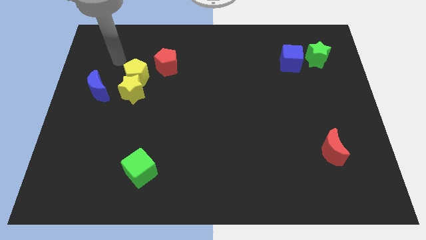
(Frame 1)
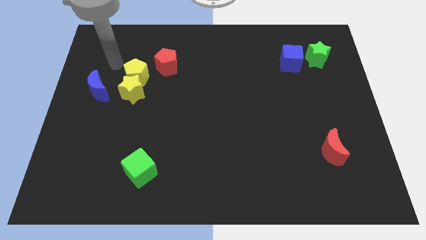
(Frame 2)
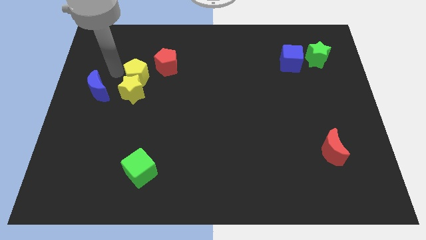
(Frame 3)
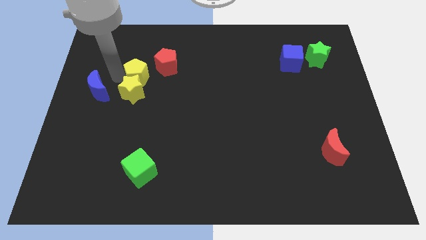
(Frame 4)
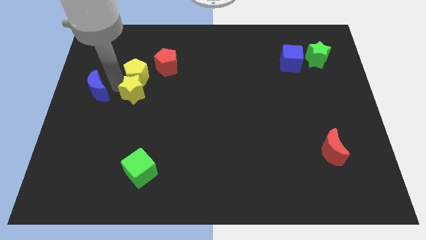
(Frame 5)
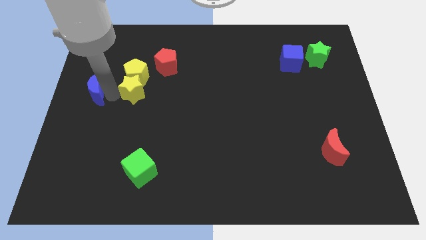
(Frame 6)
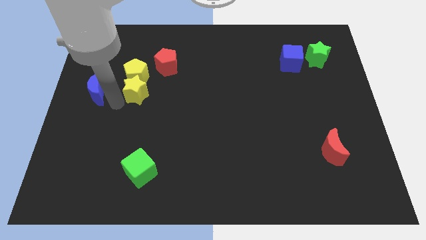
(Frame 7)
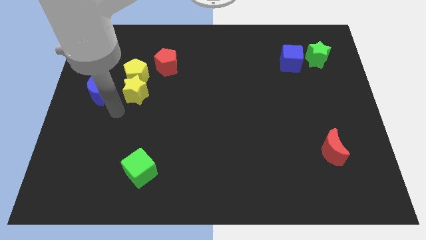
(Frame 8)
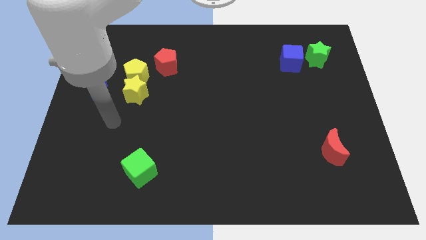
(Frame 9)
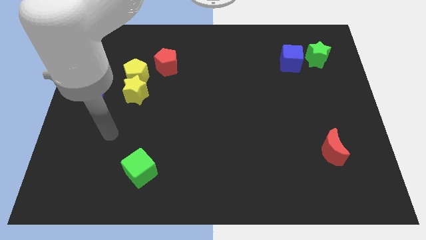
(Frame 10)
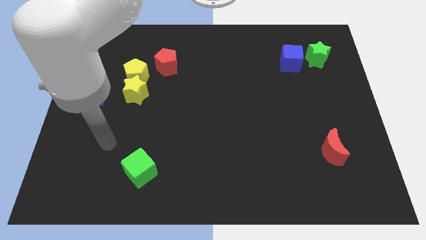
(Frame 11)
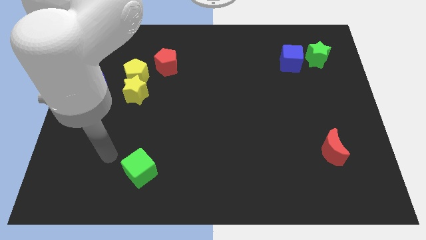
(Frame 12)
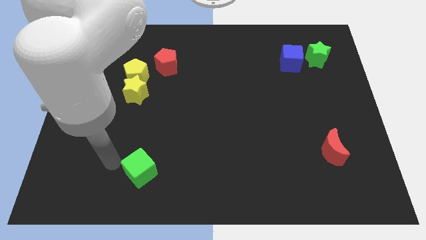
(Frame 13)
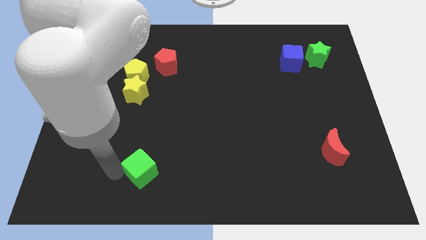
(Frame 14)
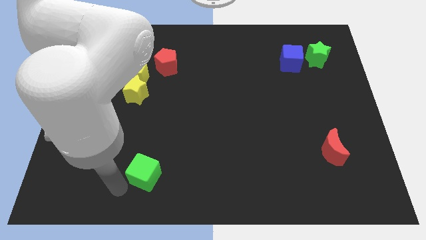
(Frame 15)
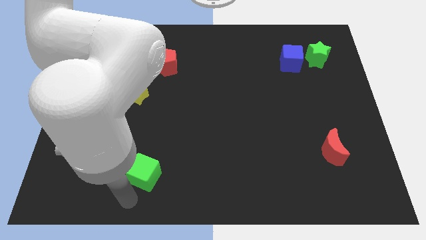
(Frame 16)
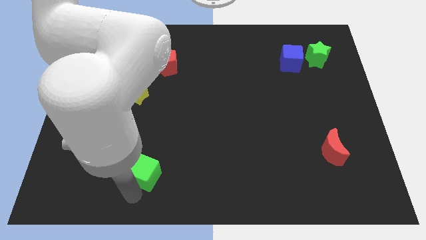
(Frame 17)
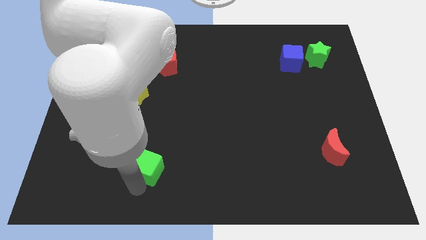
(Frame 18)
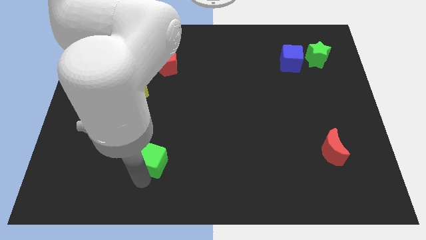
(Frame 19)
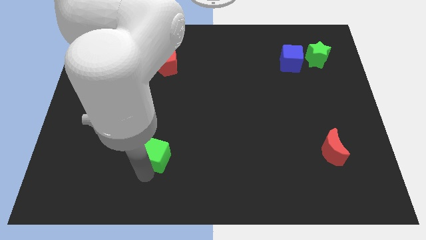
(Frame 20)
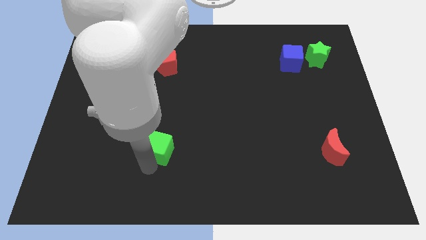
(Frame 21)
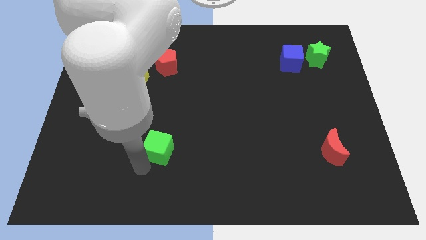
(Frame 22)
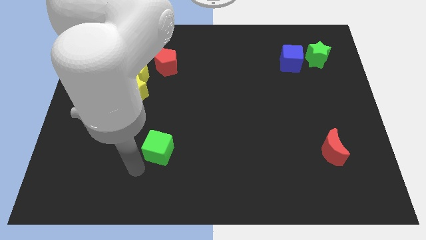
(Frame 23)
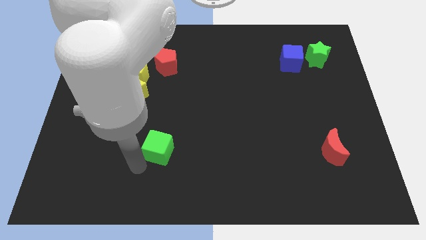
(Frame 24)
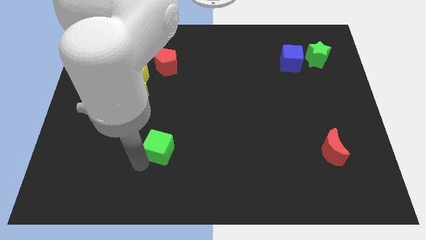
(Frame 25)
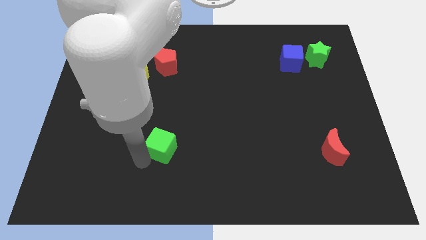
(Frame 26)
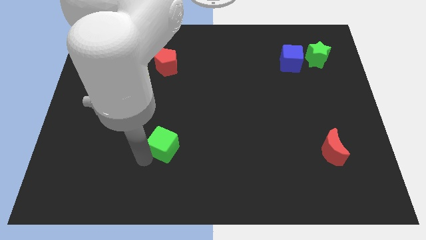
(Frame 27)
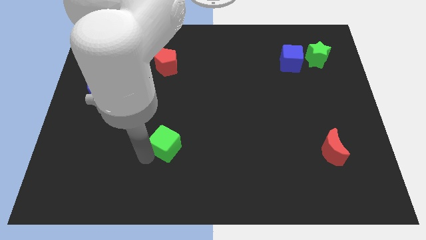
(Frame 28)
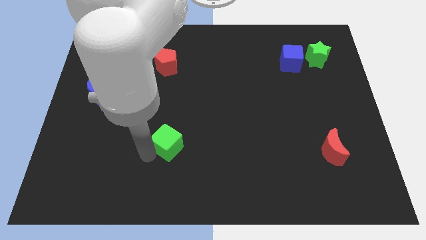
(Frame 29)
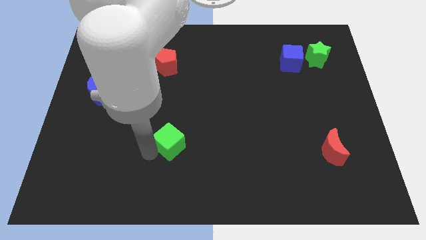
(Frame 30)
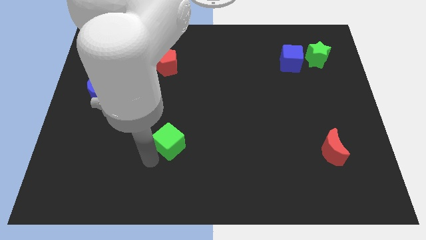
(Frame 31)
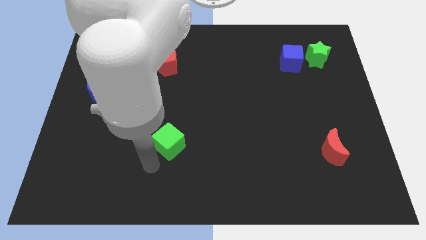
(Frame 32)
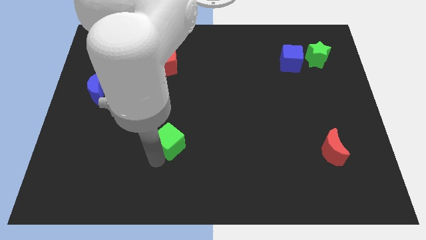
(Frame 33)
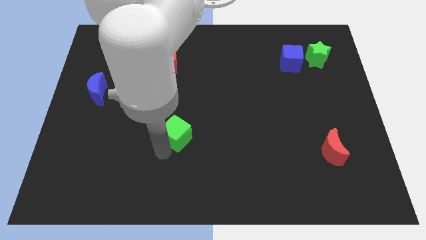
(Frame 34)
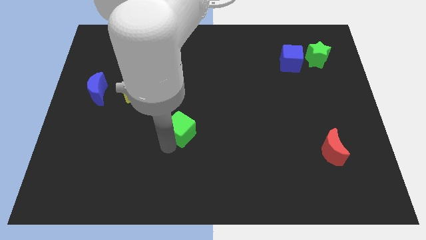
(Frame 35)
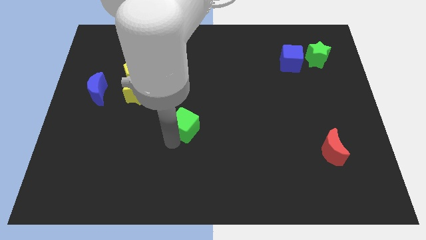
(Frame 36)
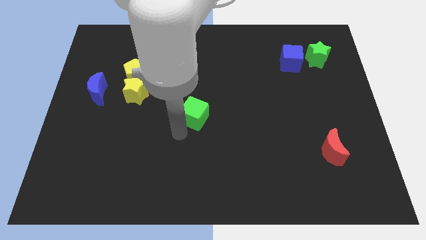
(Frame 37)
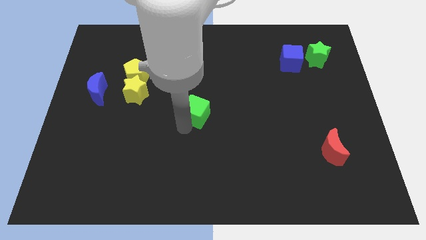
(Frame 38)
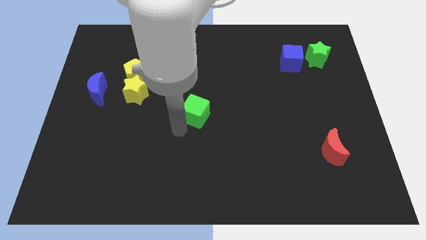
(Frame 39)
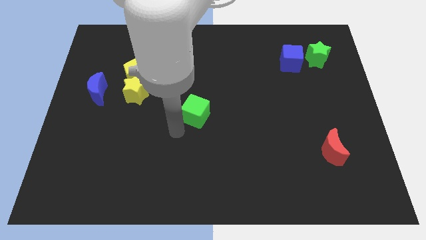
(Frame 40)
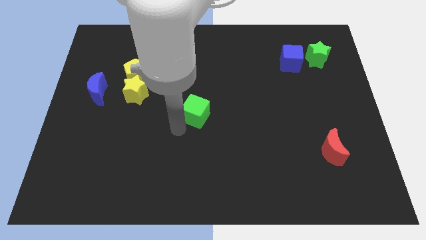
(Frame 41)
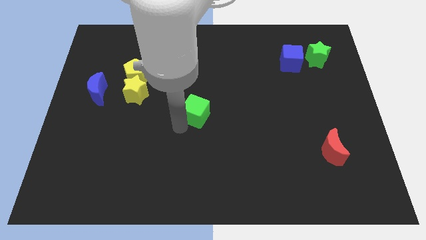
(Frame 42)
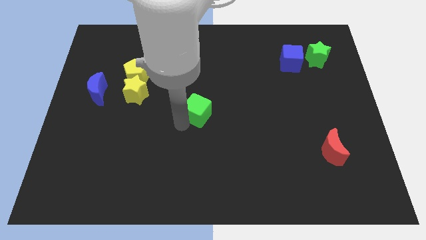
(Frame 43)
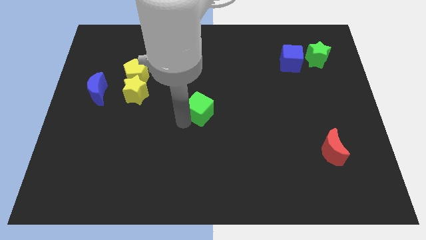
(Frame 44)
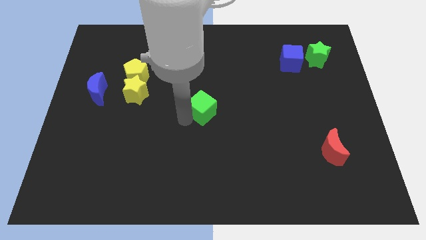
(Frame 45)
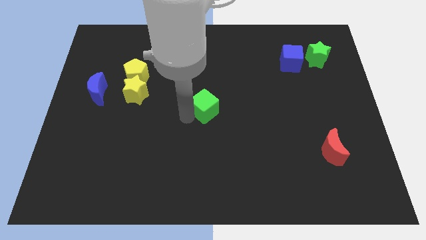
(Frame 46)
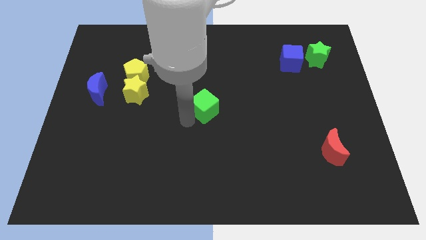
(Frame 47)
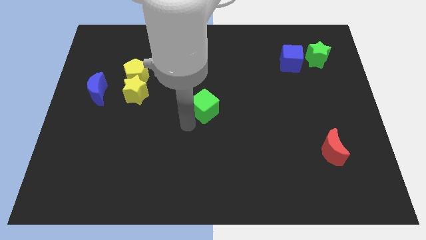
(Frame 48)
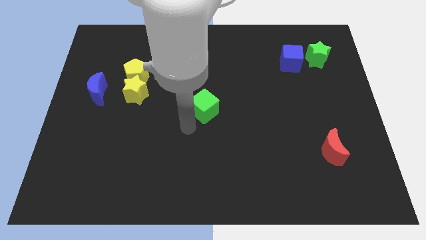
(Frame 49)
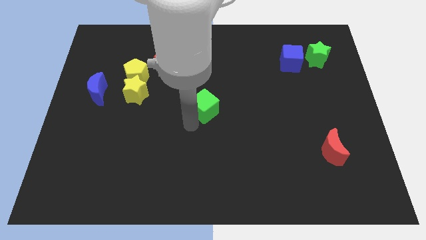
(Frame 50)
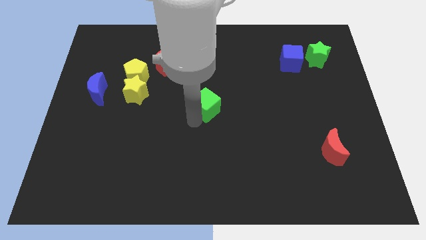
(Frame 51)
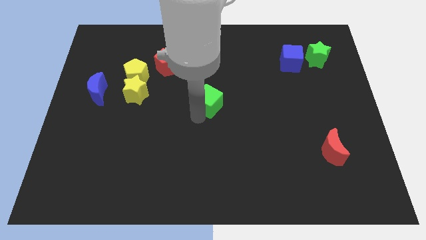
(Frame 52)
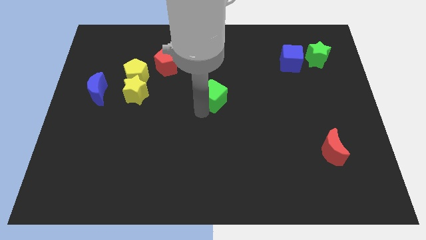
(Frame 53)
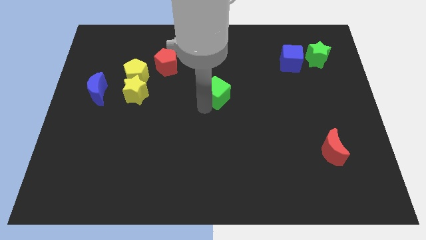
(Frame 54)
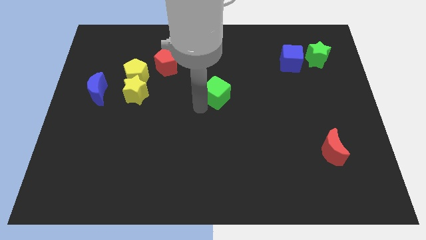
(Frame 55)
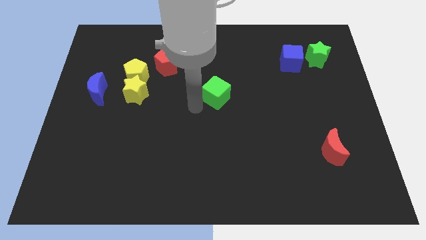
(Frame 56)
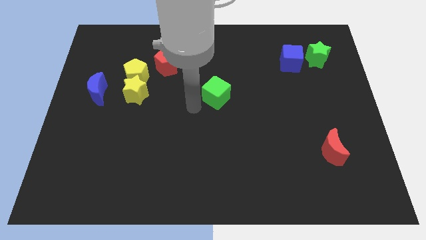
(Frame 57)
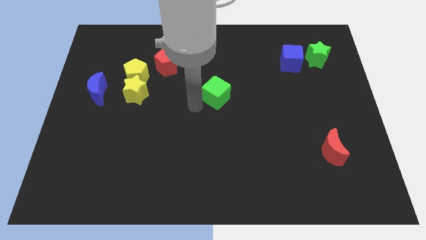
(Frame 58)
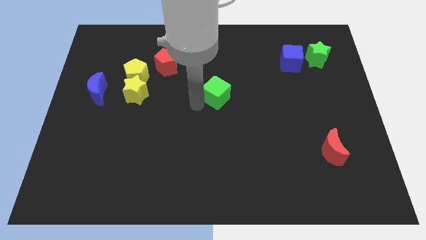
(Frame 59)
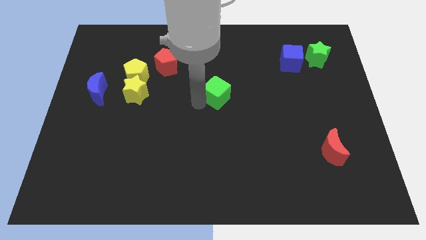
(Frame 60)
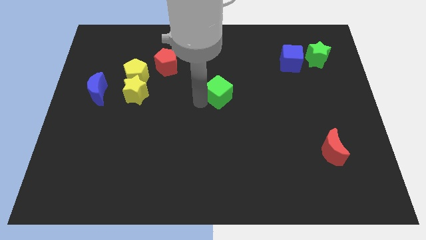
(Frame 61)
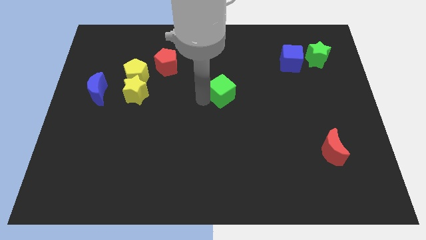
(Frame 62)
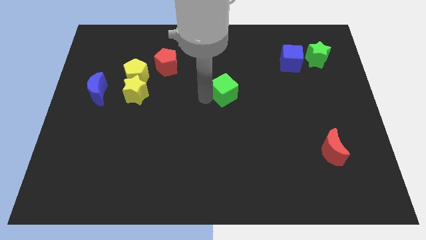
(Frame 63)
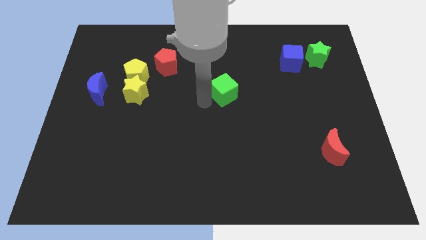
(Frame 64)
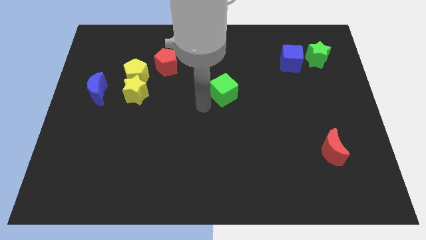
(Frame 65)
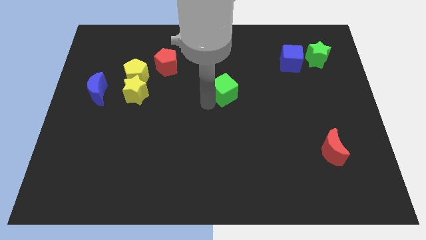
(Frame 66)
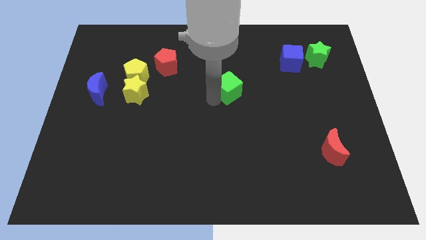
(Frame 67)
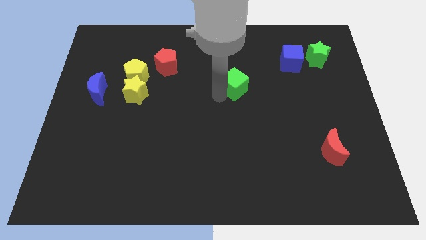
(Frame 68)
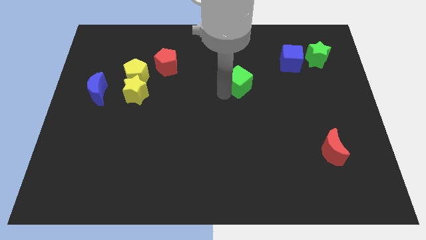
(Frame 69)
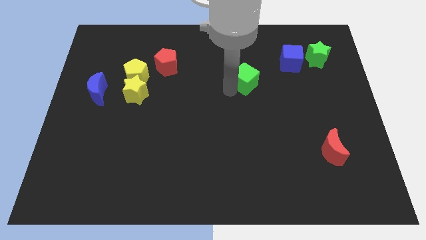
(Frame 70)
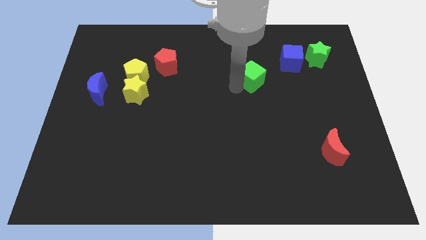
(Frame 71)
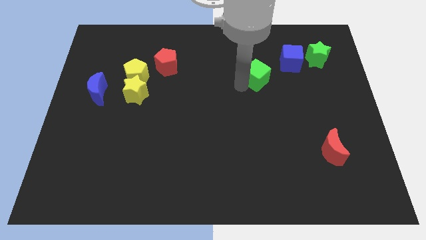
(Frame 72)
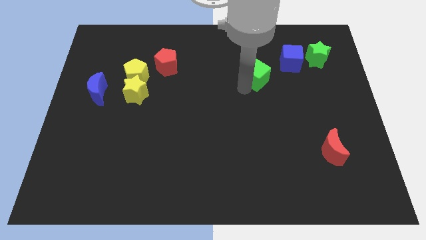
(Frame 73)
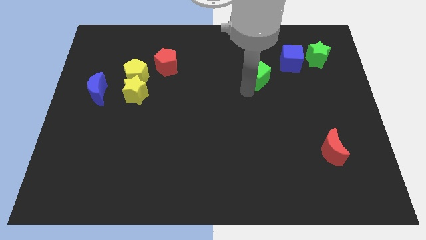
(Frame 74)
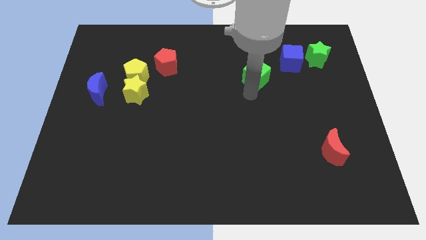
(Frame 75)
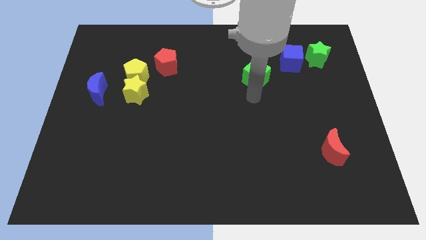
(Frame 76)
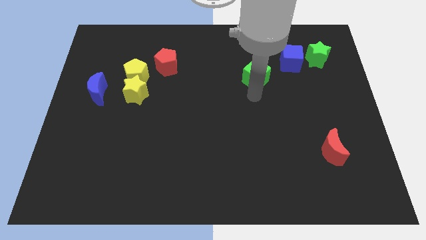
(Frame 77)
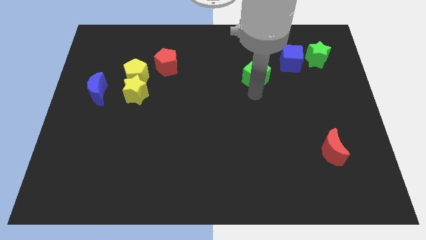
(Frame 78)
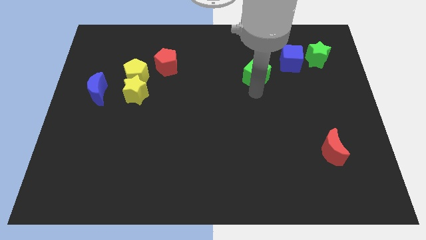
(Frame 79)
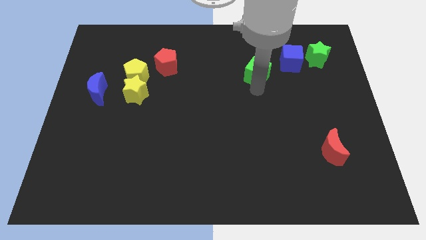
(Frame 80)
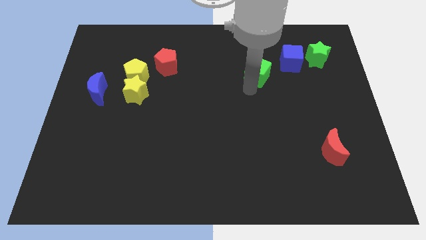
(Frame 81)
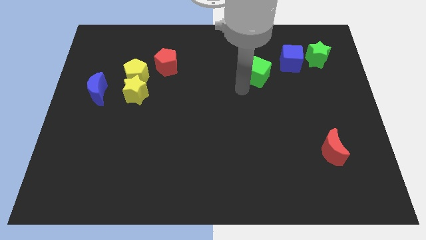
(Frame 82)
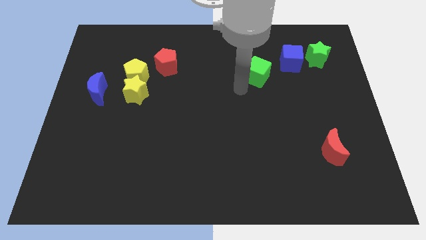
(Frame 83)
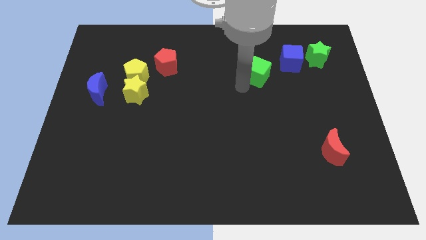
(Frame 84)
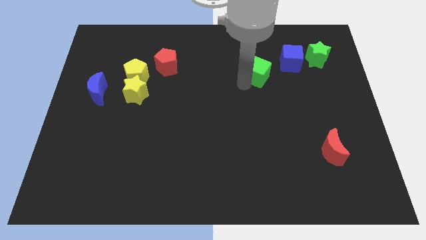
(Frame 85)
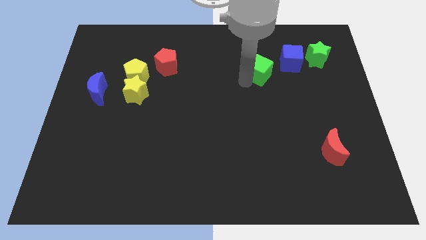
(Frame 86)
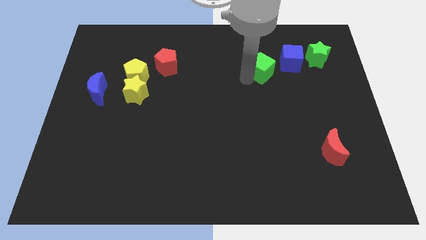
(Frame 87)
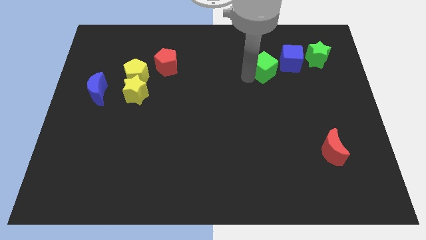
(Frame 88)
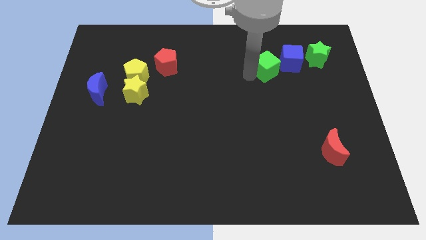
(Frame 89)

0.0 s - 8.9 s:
slide the green cube just left of the green star
